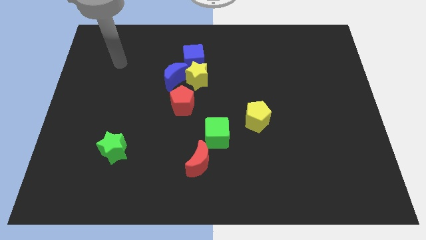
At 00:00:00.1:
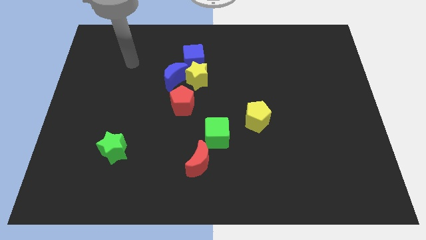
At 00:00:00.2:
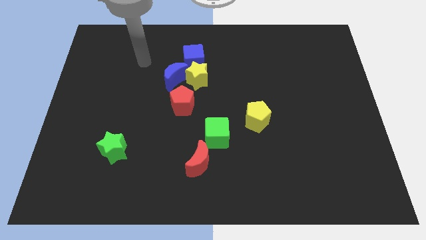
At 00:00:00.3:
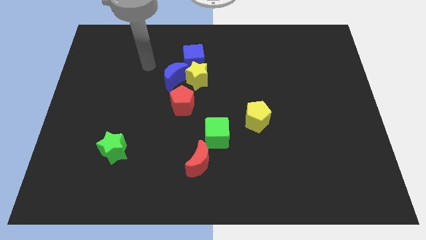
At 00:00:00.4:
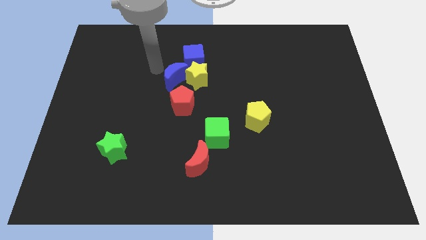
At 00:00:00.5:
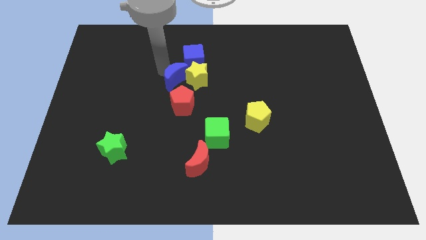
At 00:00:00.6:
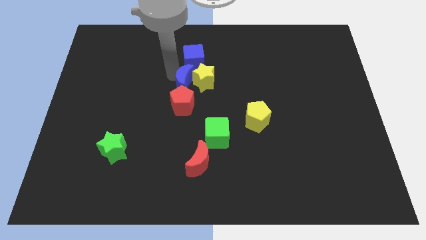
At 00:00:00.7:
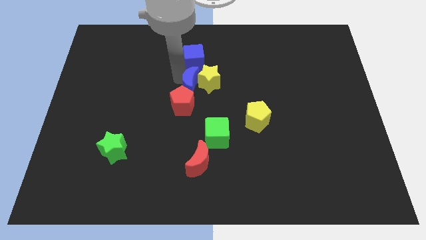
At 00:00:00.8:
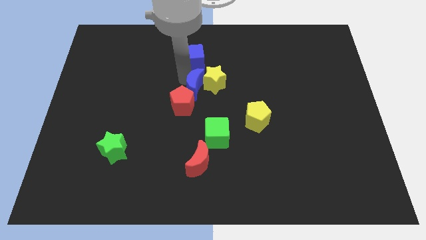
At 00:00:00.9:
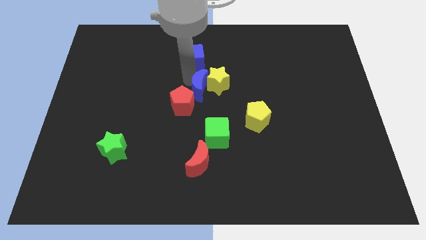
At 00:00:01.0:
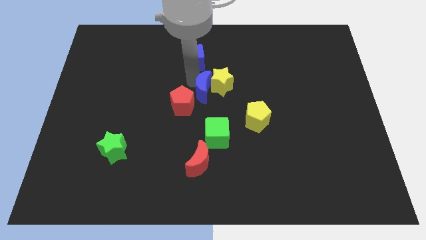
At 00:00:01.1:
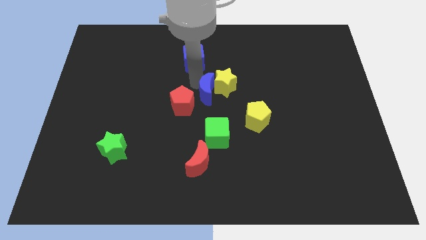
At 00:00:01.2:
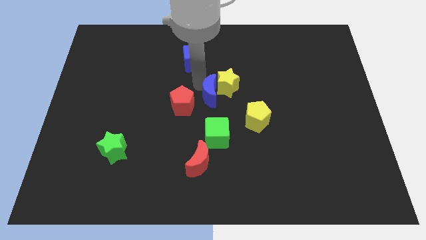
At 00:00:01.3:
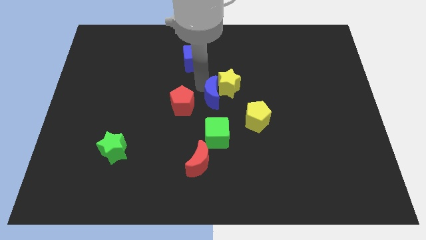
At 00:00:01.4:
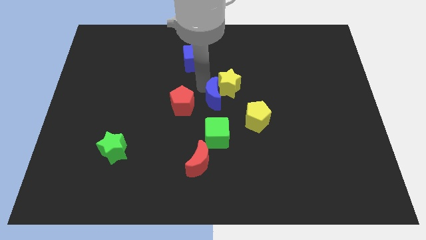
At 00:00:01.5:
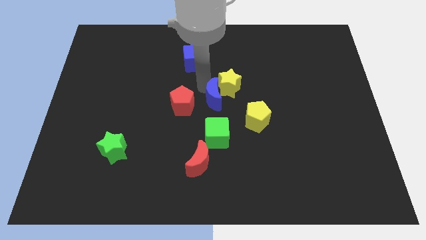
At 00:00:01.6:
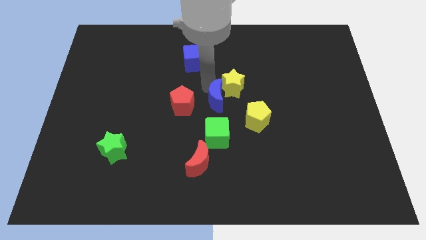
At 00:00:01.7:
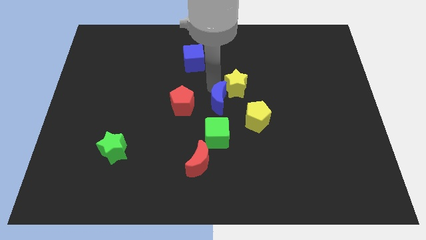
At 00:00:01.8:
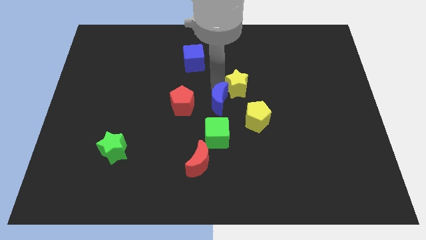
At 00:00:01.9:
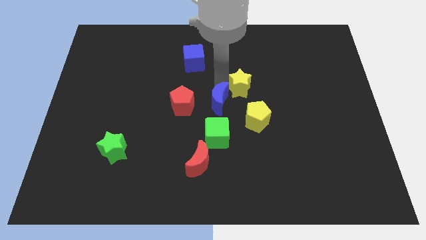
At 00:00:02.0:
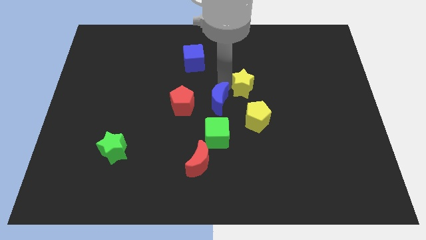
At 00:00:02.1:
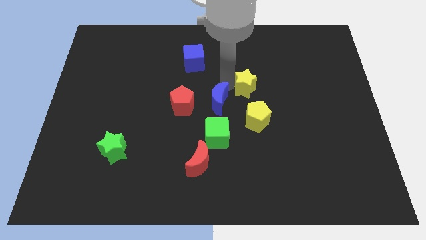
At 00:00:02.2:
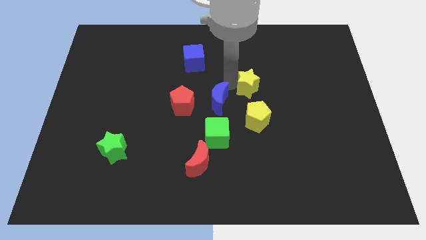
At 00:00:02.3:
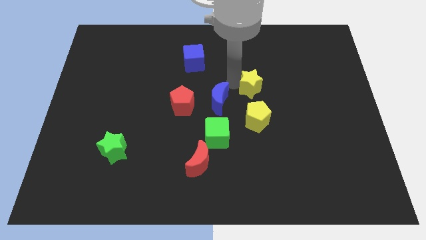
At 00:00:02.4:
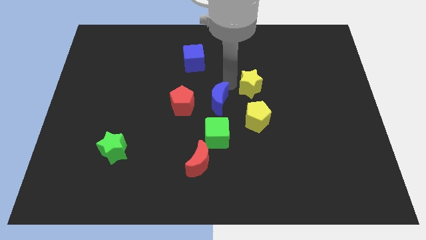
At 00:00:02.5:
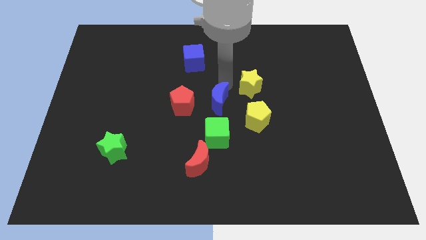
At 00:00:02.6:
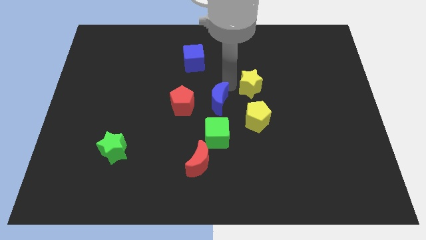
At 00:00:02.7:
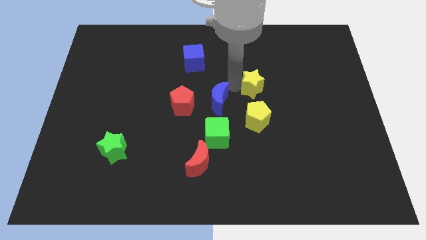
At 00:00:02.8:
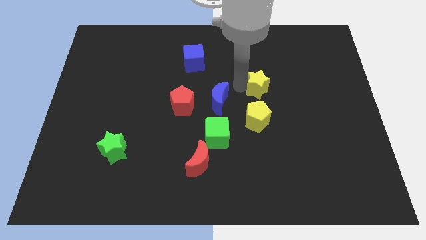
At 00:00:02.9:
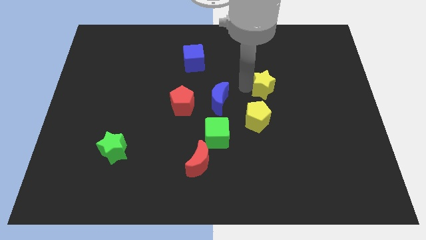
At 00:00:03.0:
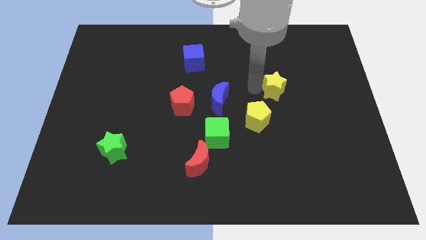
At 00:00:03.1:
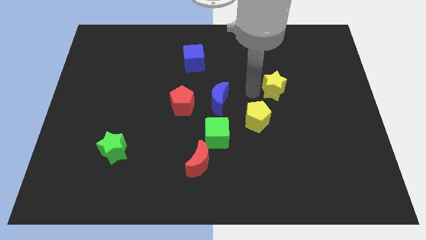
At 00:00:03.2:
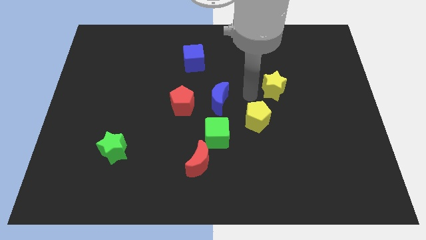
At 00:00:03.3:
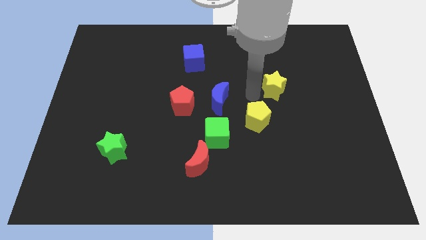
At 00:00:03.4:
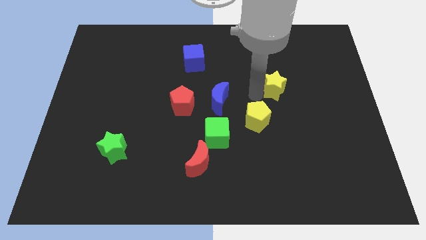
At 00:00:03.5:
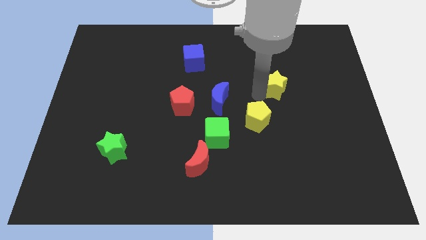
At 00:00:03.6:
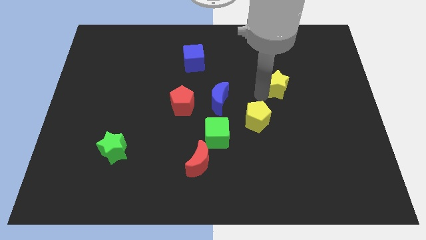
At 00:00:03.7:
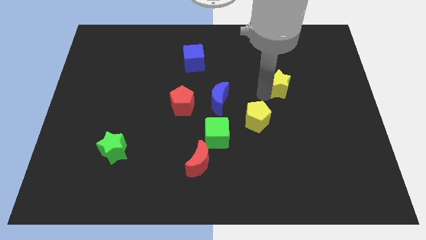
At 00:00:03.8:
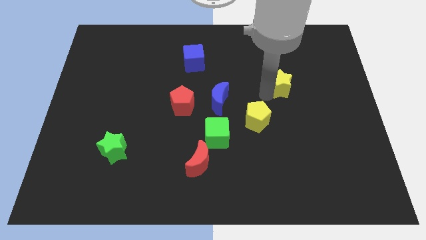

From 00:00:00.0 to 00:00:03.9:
move the yellow star to the right

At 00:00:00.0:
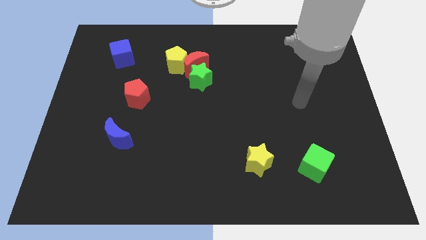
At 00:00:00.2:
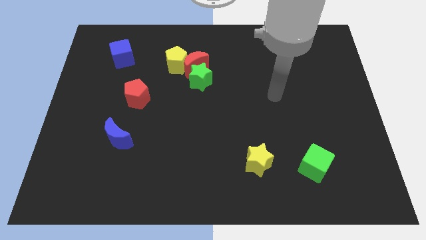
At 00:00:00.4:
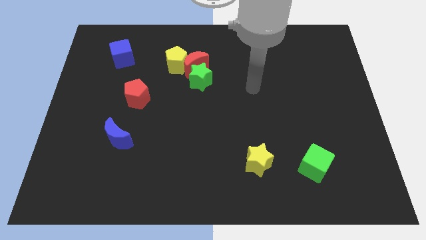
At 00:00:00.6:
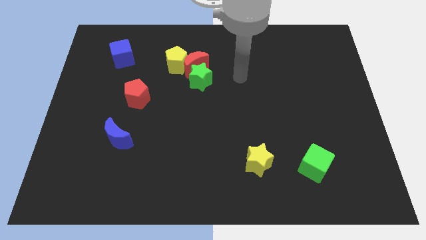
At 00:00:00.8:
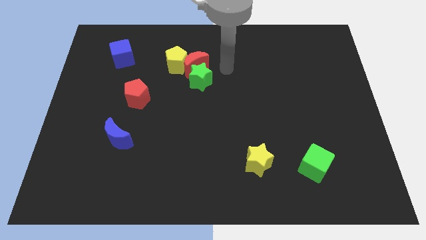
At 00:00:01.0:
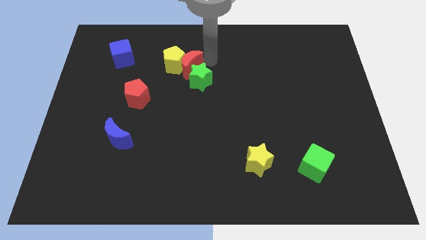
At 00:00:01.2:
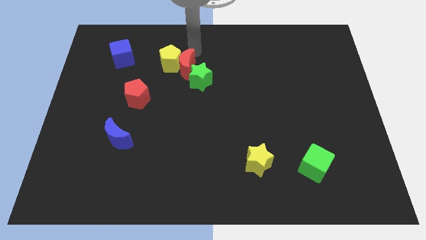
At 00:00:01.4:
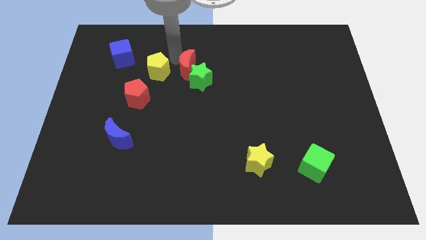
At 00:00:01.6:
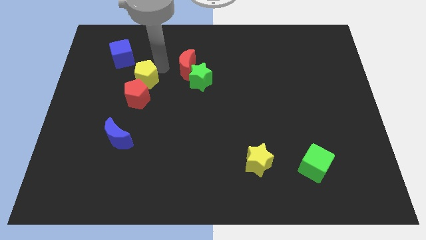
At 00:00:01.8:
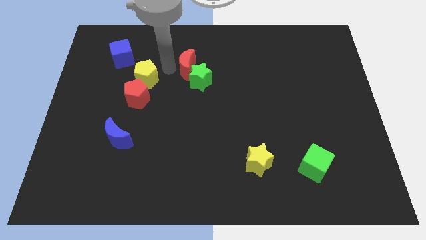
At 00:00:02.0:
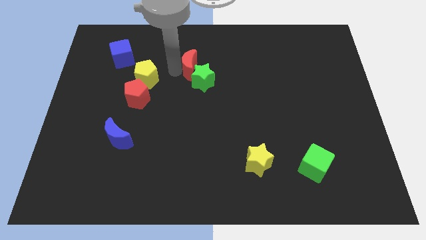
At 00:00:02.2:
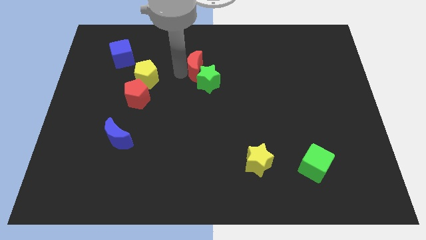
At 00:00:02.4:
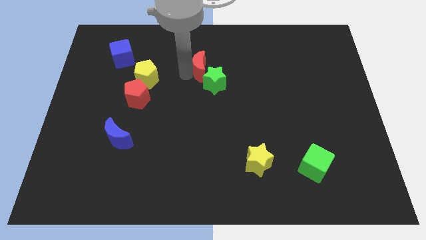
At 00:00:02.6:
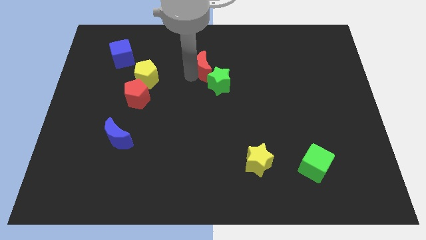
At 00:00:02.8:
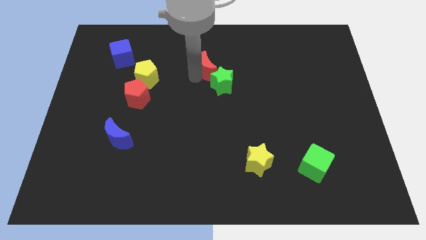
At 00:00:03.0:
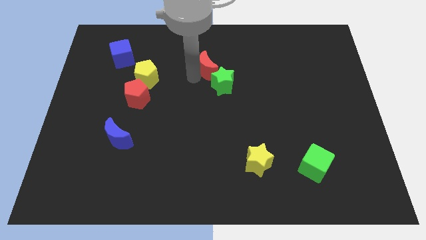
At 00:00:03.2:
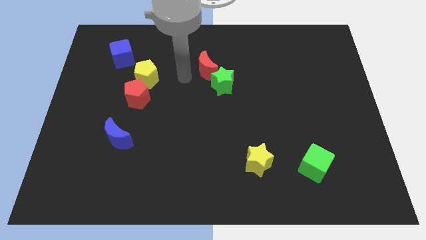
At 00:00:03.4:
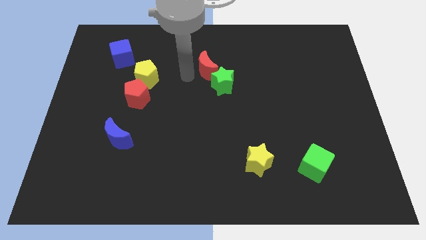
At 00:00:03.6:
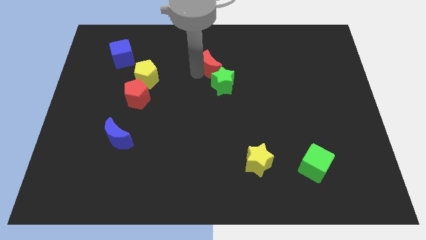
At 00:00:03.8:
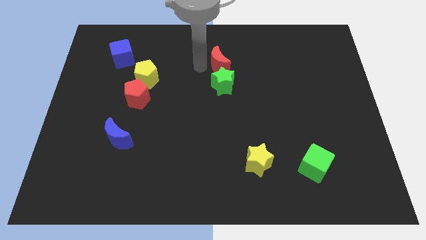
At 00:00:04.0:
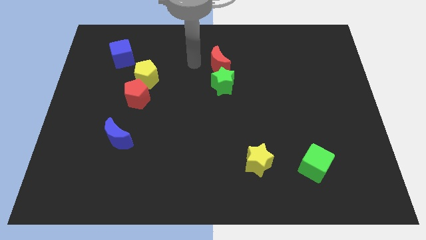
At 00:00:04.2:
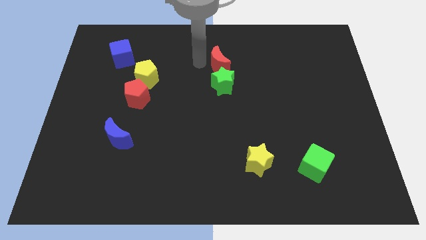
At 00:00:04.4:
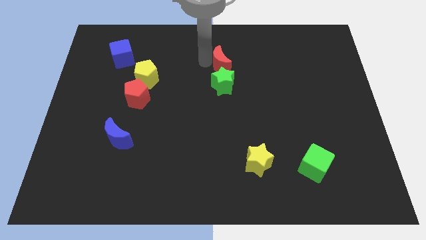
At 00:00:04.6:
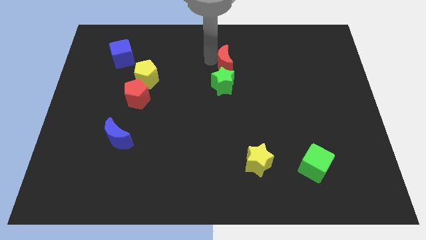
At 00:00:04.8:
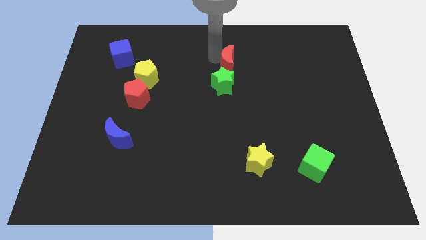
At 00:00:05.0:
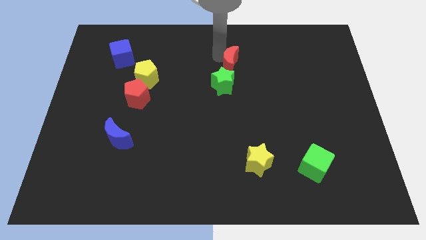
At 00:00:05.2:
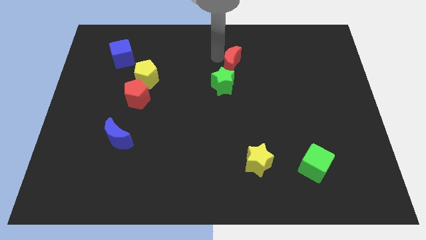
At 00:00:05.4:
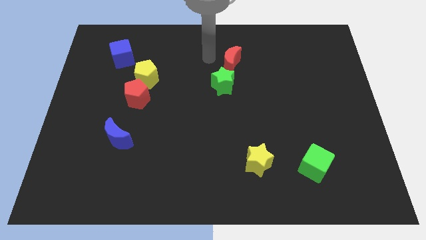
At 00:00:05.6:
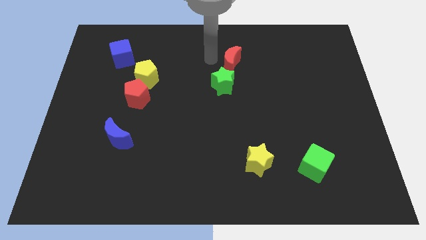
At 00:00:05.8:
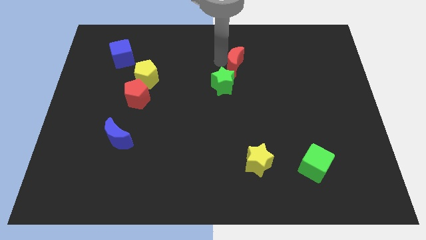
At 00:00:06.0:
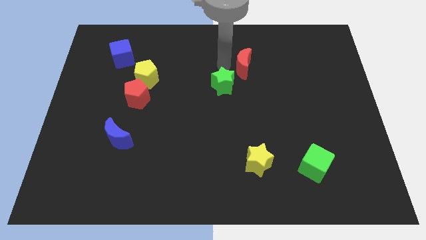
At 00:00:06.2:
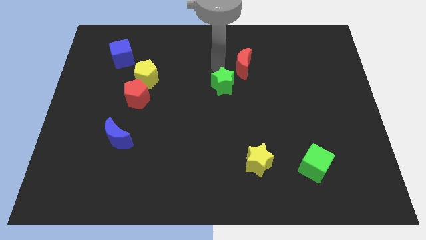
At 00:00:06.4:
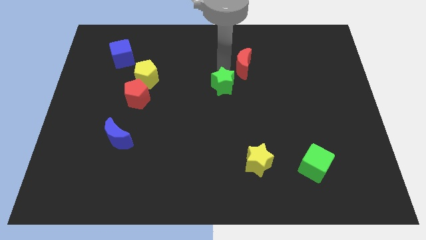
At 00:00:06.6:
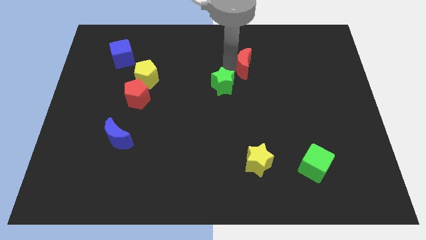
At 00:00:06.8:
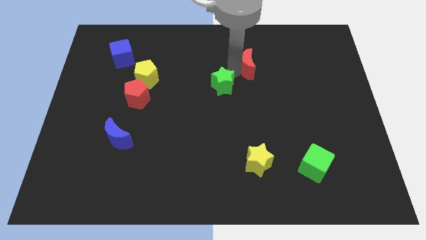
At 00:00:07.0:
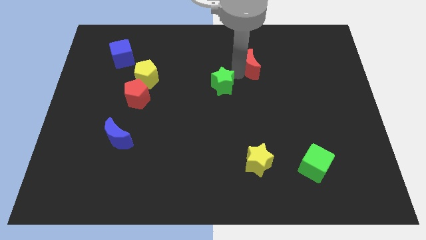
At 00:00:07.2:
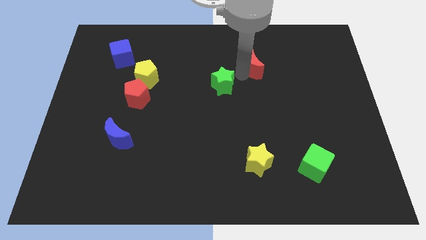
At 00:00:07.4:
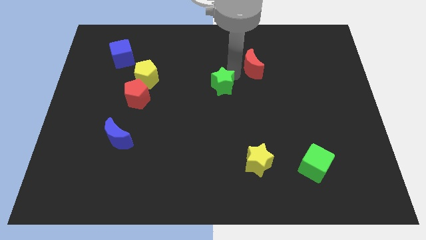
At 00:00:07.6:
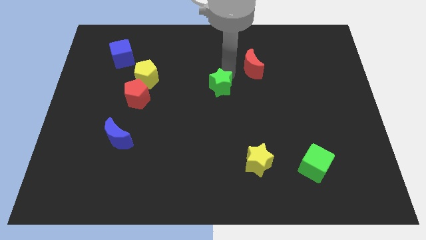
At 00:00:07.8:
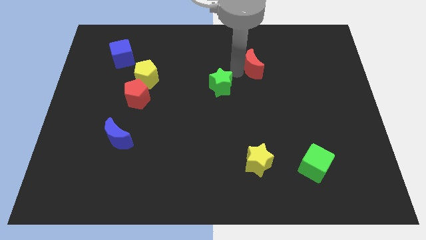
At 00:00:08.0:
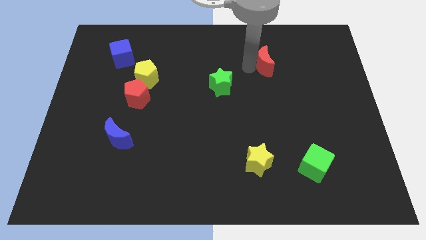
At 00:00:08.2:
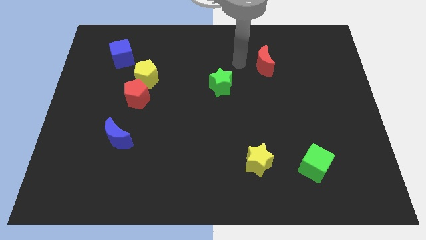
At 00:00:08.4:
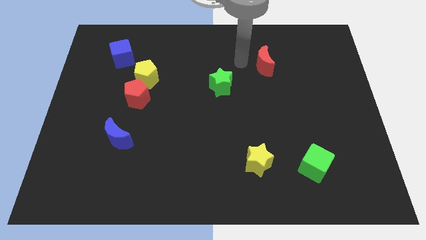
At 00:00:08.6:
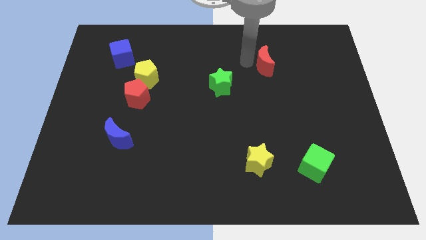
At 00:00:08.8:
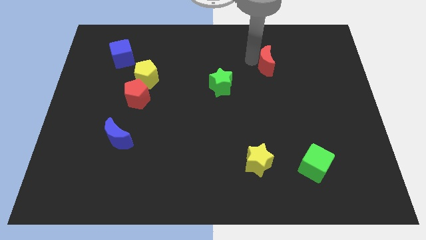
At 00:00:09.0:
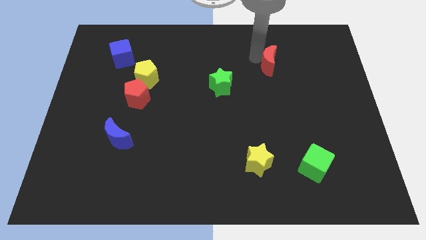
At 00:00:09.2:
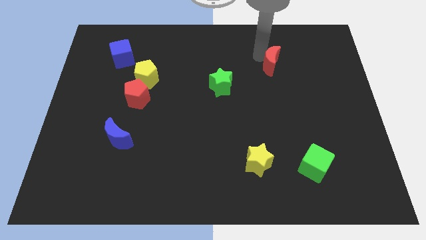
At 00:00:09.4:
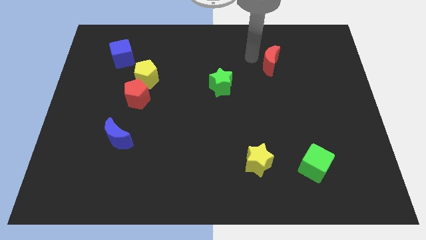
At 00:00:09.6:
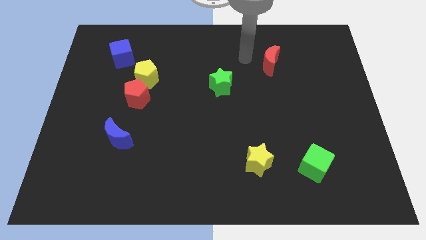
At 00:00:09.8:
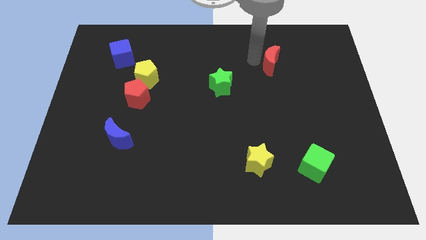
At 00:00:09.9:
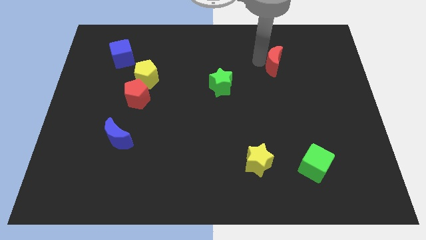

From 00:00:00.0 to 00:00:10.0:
move the red moon right
